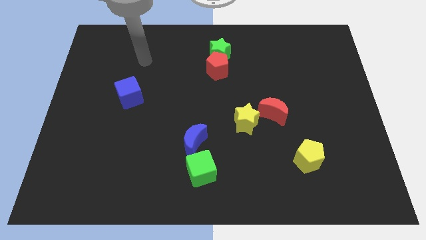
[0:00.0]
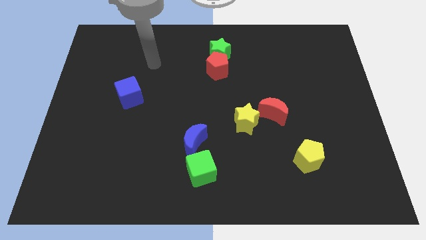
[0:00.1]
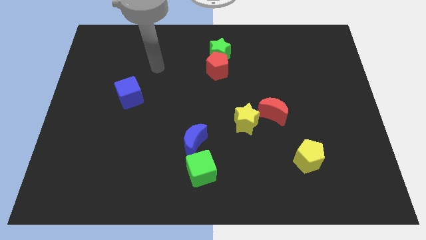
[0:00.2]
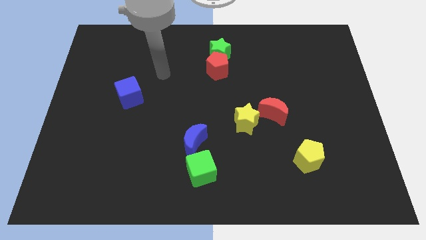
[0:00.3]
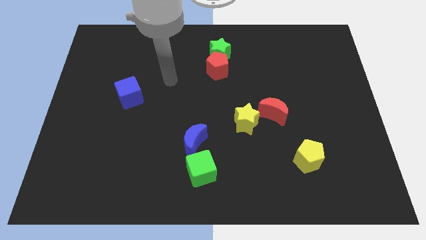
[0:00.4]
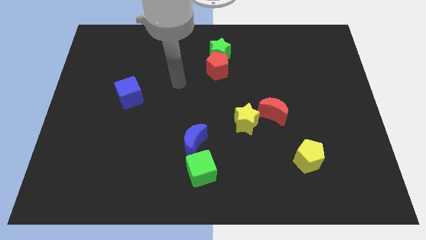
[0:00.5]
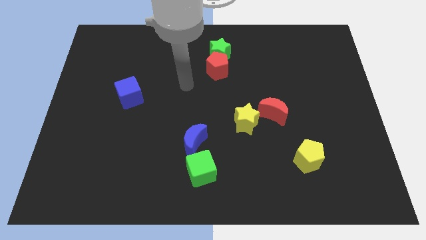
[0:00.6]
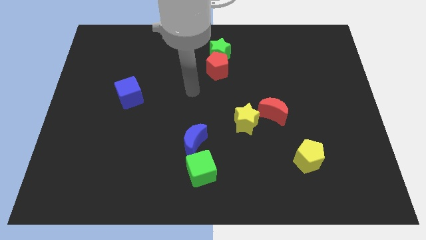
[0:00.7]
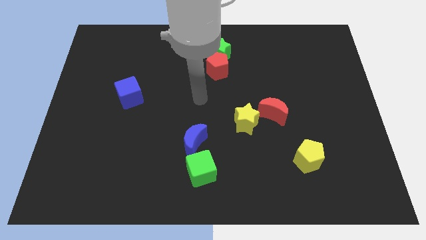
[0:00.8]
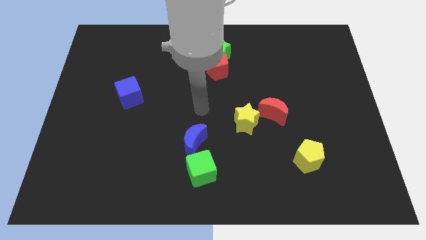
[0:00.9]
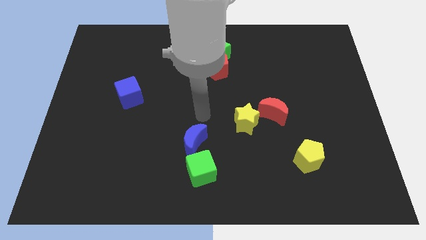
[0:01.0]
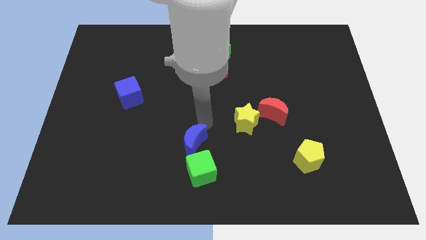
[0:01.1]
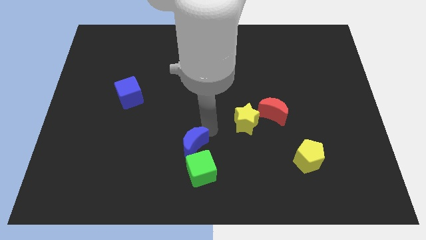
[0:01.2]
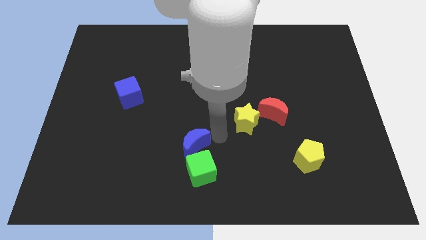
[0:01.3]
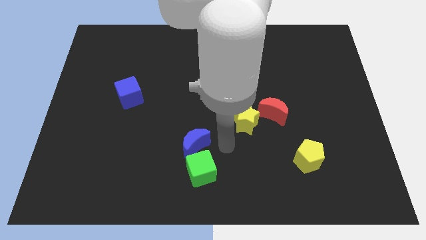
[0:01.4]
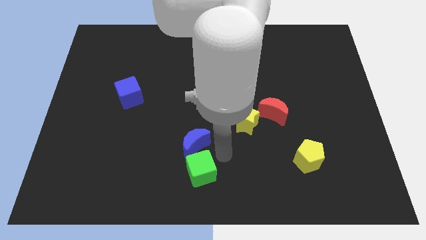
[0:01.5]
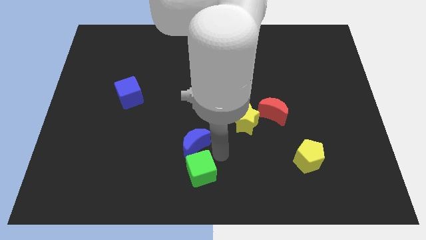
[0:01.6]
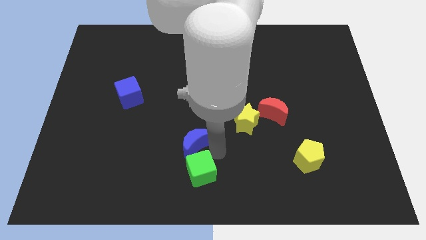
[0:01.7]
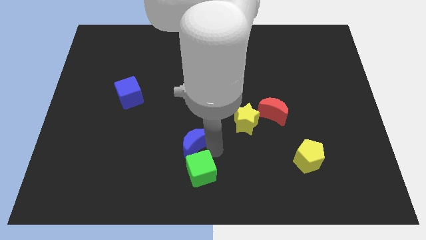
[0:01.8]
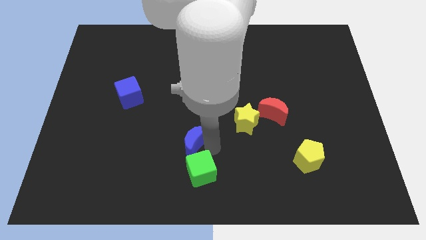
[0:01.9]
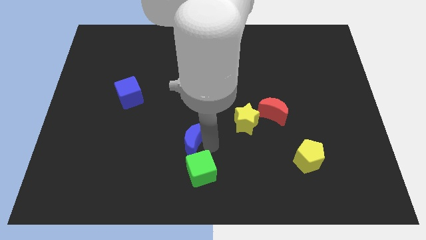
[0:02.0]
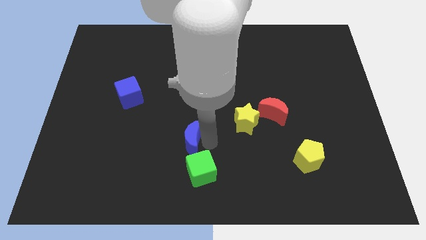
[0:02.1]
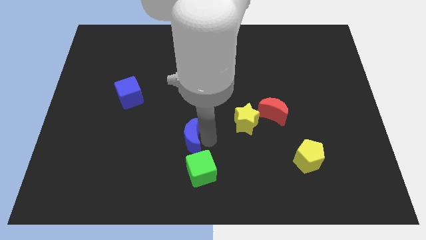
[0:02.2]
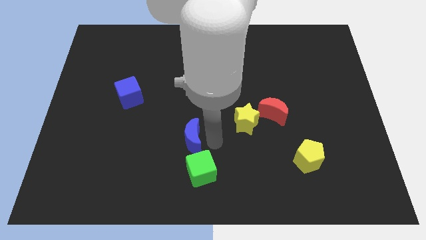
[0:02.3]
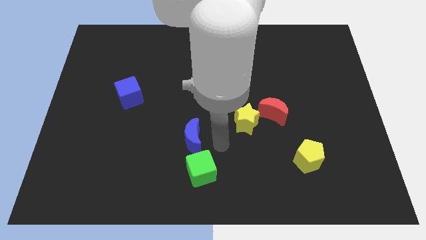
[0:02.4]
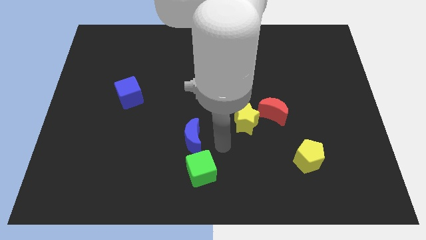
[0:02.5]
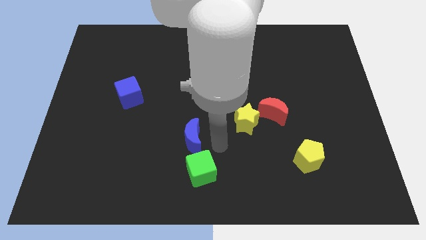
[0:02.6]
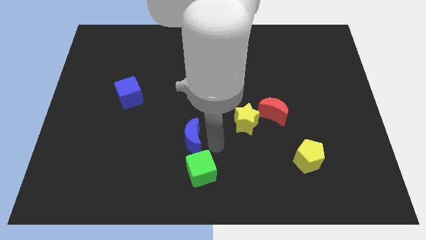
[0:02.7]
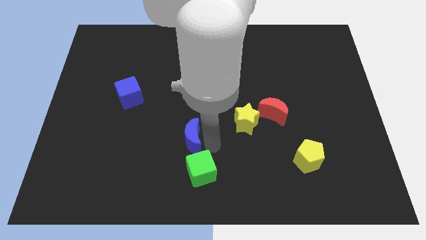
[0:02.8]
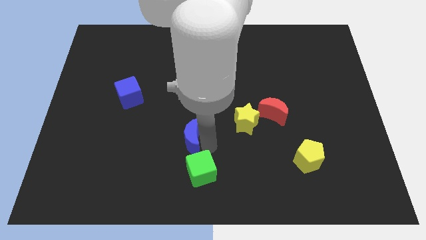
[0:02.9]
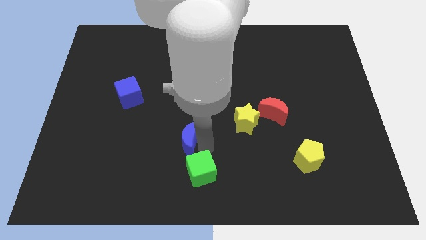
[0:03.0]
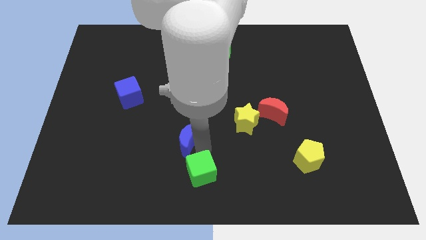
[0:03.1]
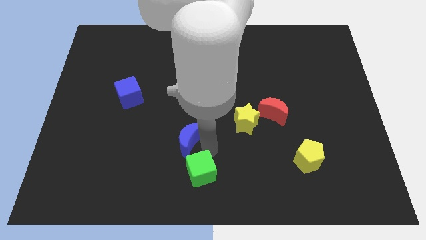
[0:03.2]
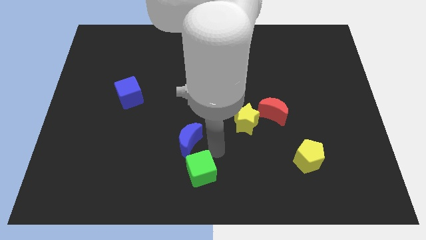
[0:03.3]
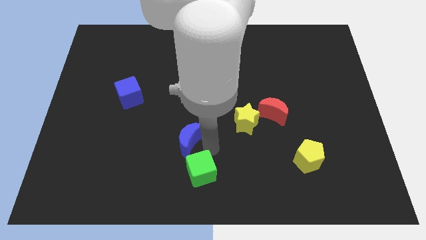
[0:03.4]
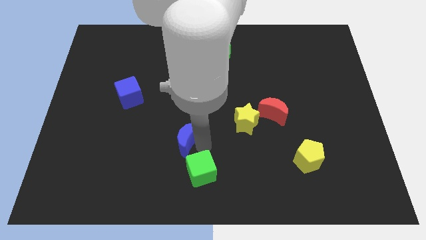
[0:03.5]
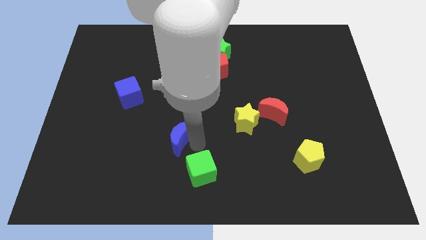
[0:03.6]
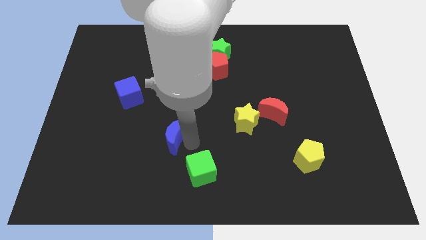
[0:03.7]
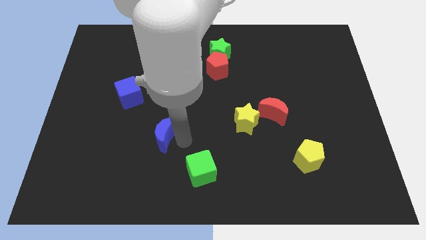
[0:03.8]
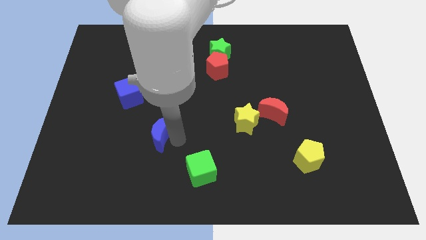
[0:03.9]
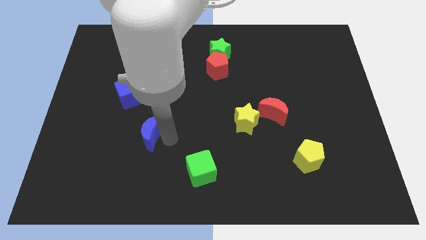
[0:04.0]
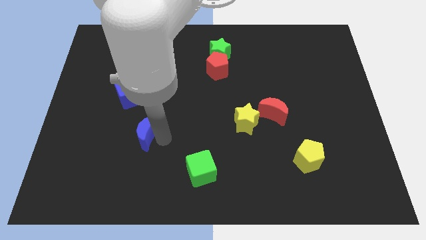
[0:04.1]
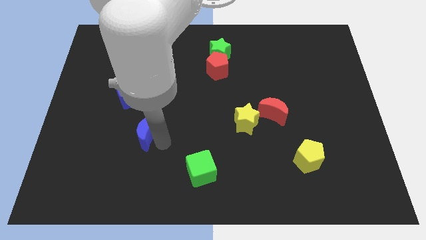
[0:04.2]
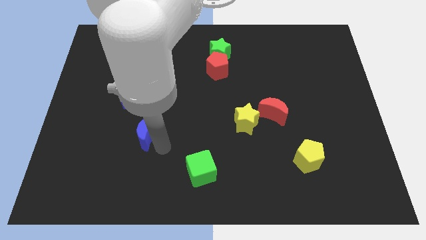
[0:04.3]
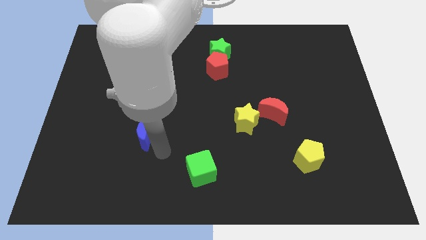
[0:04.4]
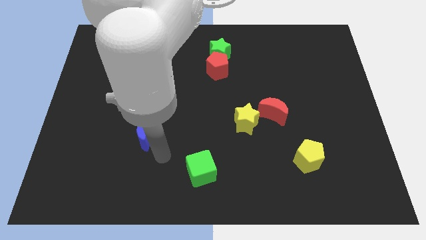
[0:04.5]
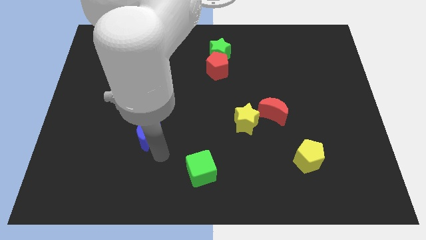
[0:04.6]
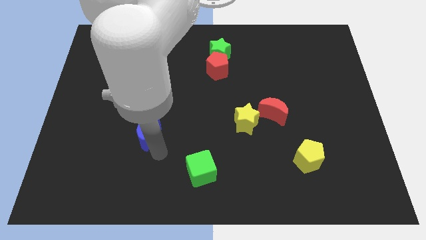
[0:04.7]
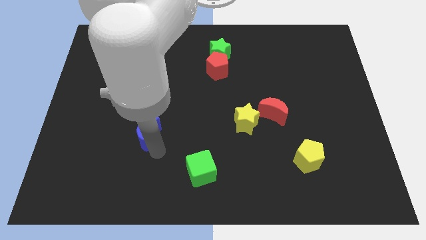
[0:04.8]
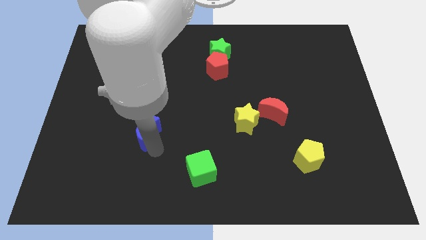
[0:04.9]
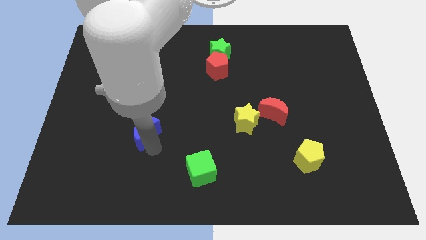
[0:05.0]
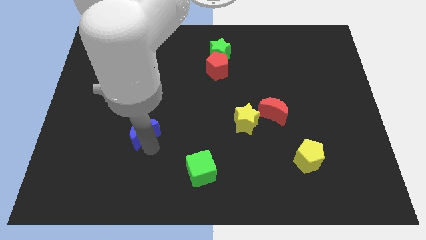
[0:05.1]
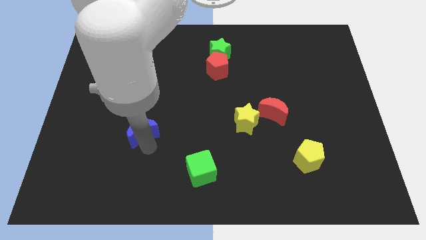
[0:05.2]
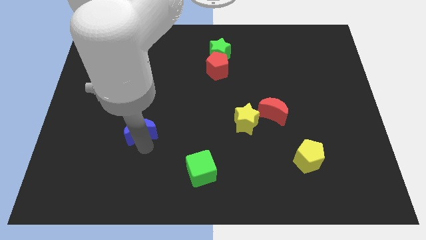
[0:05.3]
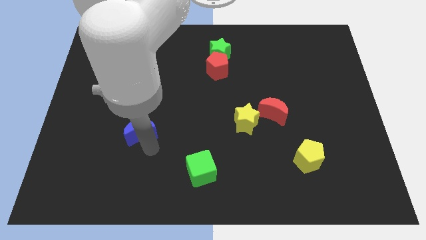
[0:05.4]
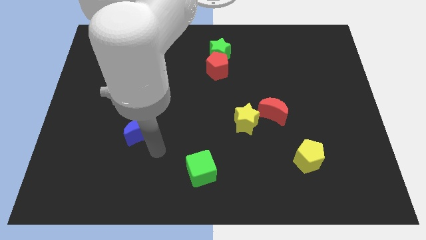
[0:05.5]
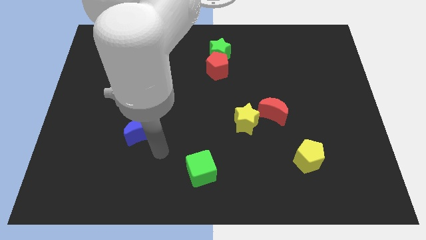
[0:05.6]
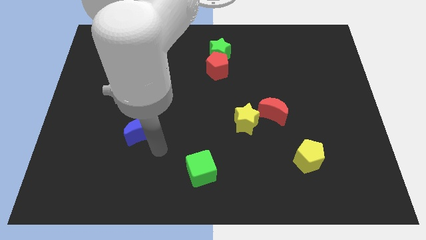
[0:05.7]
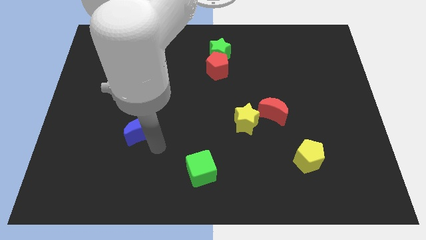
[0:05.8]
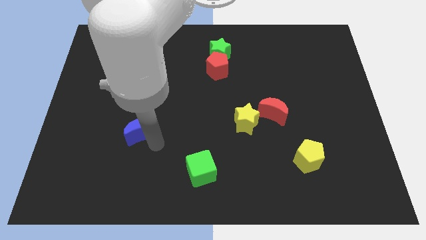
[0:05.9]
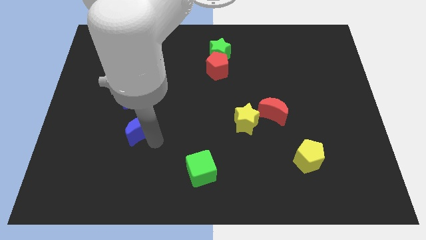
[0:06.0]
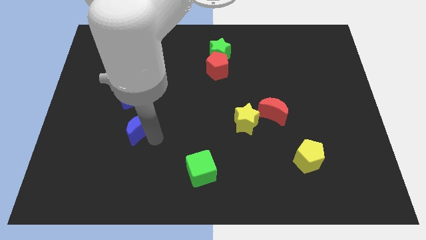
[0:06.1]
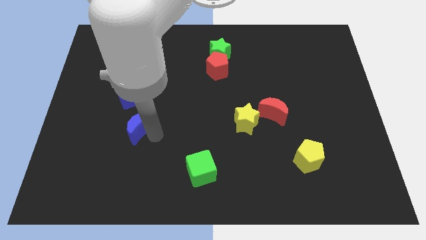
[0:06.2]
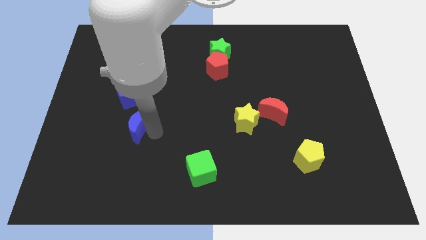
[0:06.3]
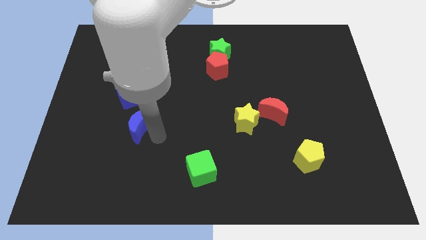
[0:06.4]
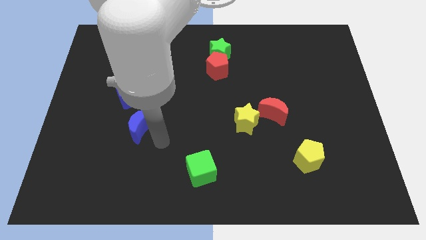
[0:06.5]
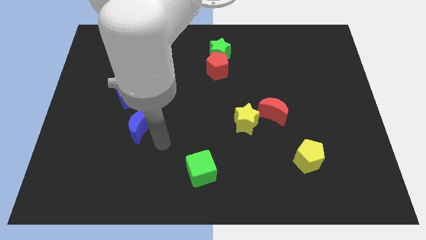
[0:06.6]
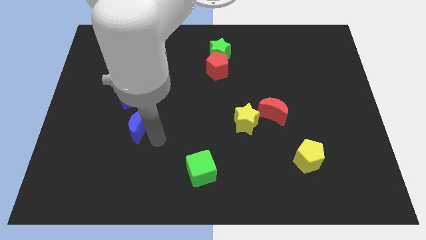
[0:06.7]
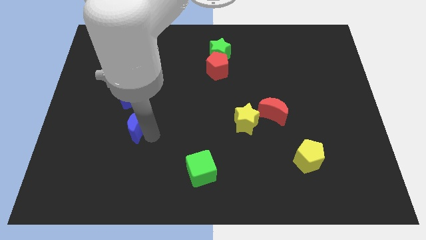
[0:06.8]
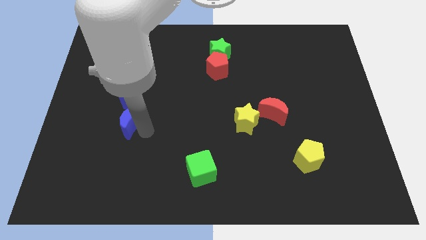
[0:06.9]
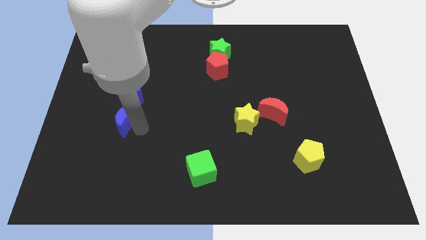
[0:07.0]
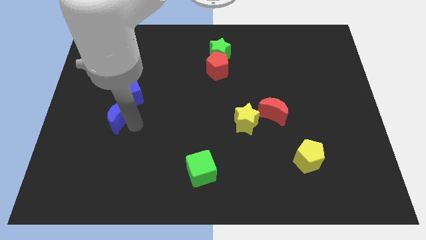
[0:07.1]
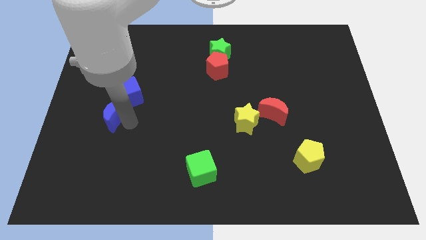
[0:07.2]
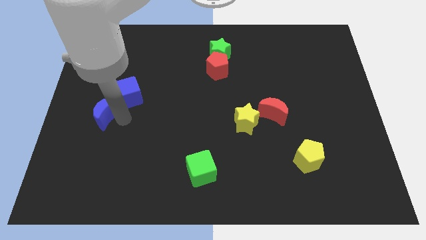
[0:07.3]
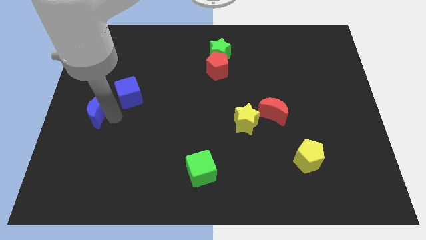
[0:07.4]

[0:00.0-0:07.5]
put the blue moon to the left side of the board
